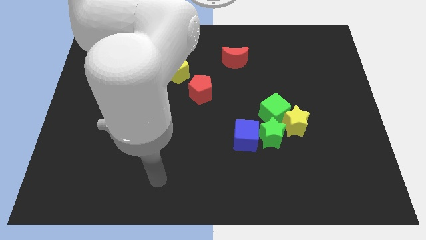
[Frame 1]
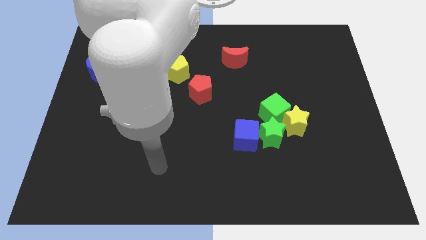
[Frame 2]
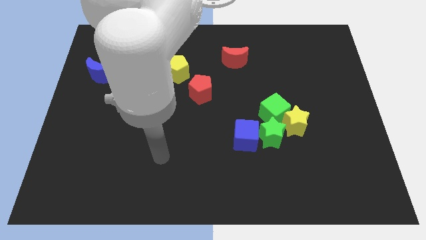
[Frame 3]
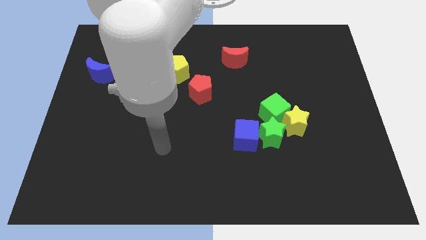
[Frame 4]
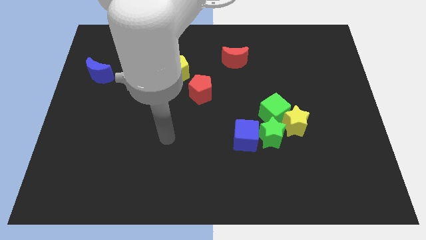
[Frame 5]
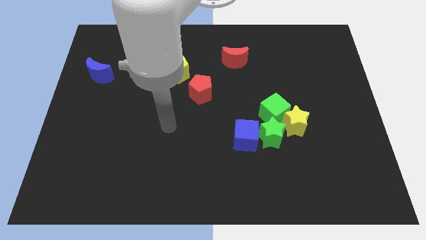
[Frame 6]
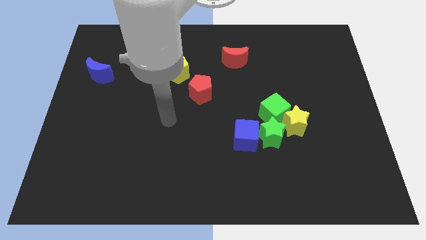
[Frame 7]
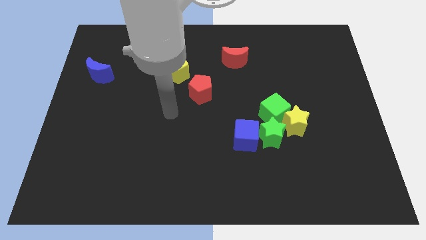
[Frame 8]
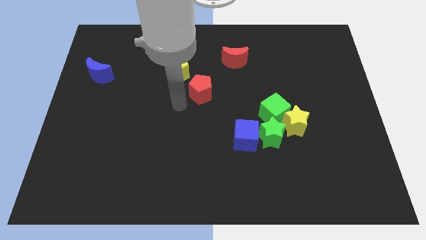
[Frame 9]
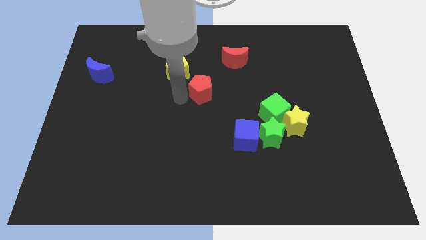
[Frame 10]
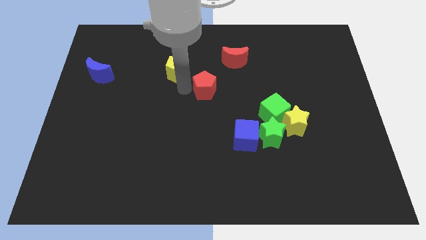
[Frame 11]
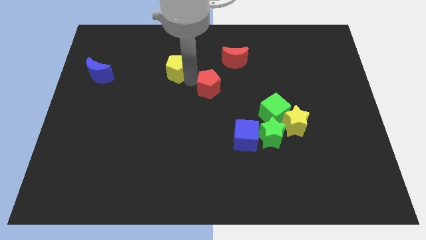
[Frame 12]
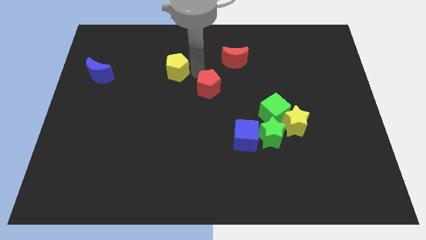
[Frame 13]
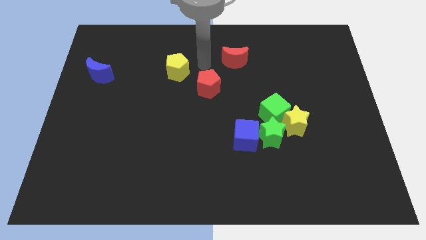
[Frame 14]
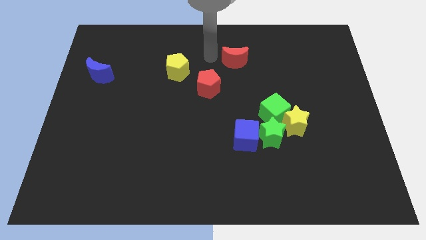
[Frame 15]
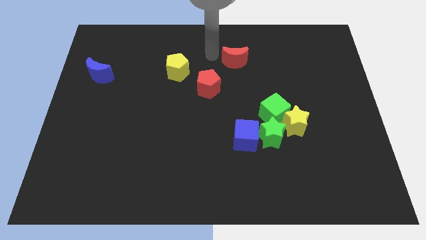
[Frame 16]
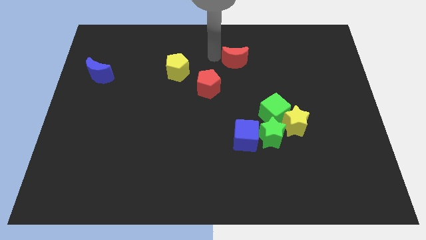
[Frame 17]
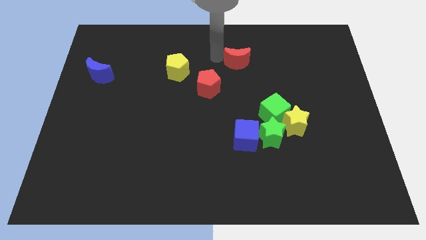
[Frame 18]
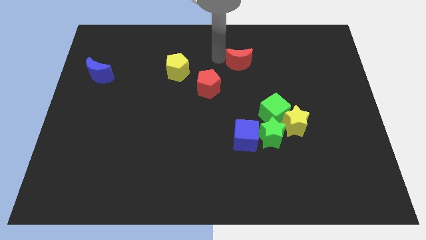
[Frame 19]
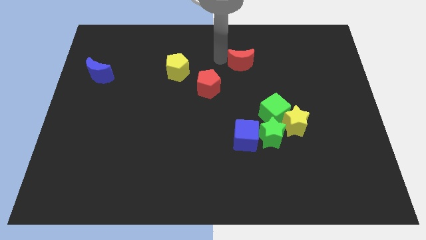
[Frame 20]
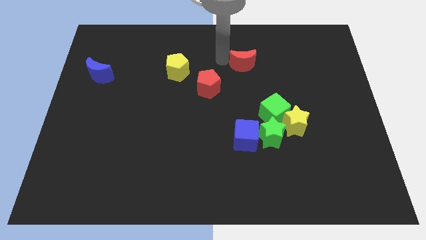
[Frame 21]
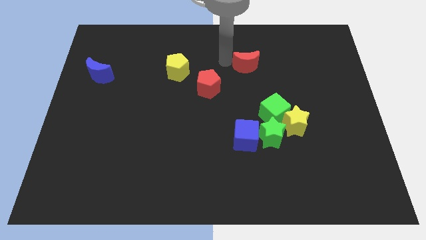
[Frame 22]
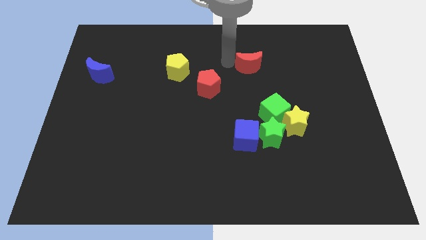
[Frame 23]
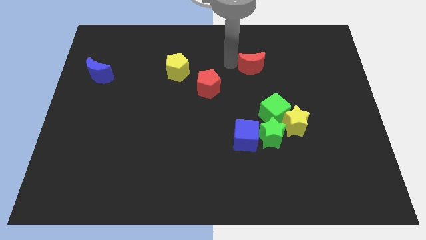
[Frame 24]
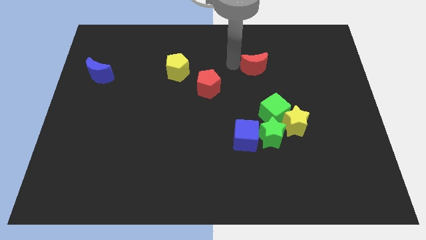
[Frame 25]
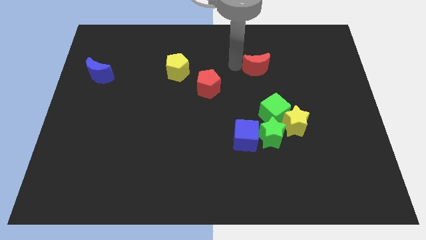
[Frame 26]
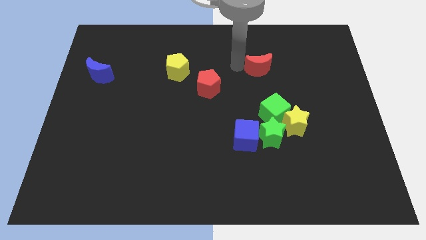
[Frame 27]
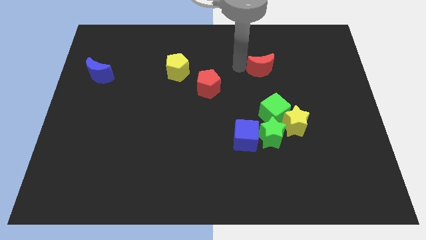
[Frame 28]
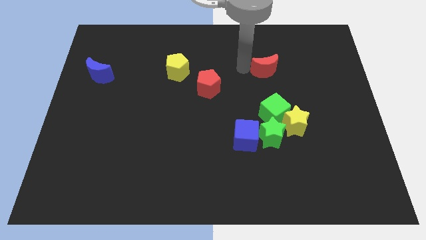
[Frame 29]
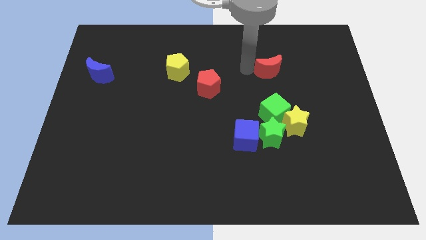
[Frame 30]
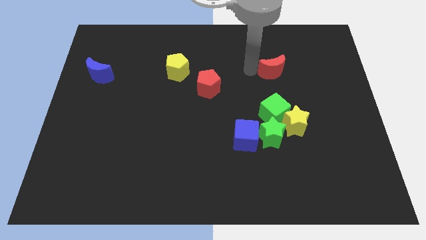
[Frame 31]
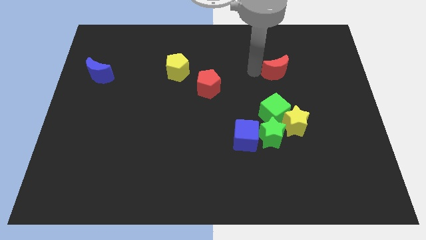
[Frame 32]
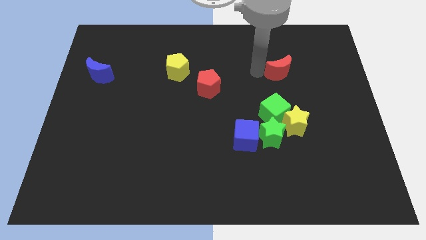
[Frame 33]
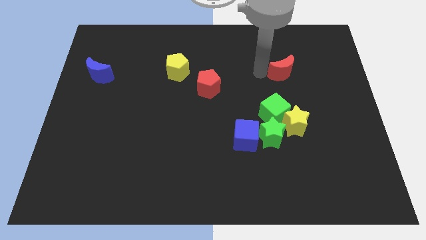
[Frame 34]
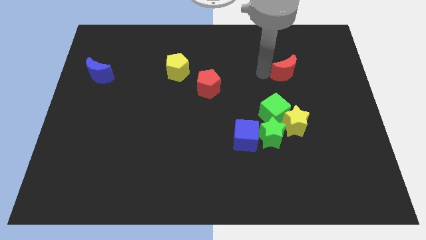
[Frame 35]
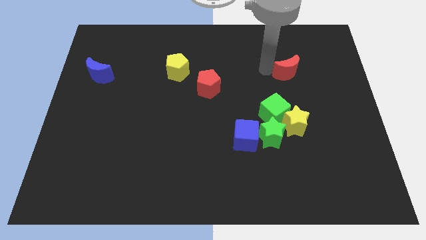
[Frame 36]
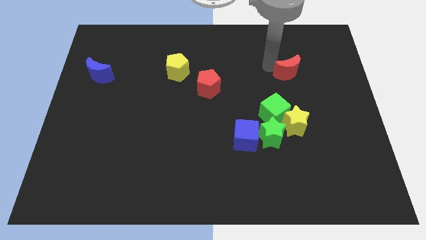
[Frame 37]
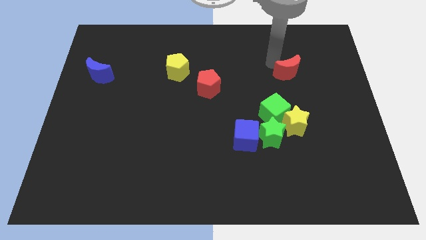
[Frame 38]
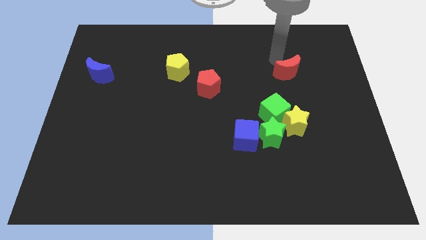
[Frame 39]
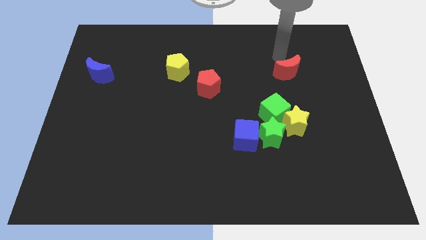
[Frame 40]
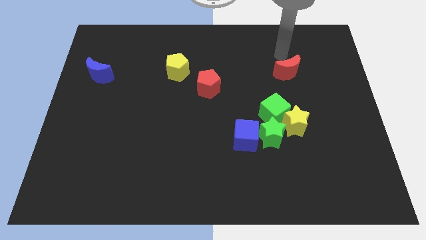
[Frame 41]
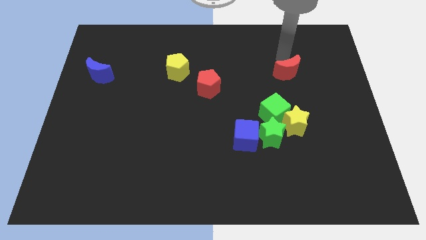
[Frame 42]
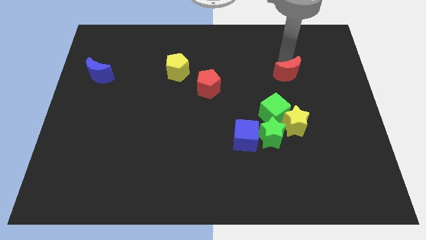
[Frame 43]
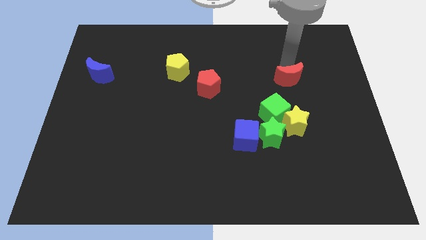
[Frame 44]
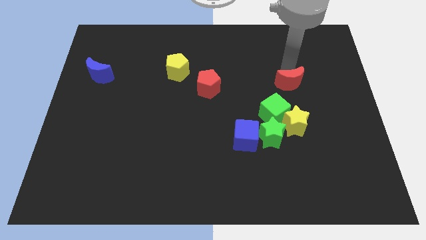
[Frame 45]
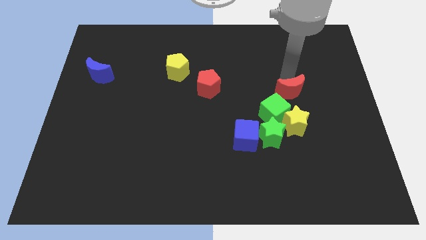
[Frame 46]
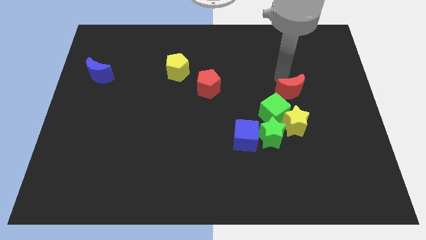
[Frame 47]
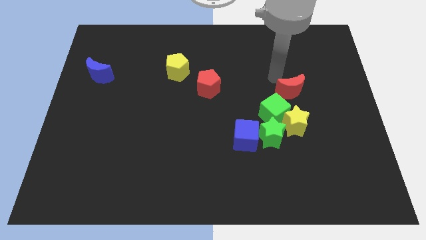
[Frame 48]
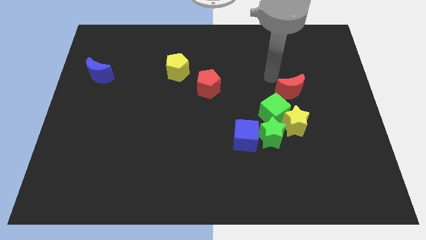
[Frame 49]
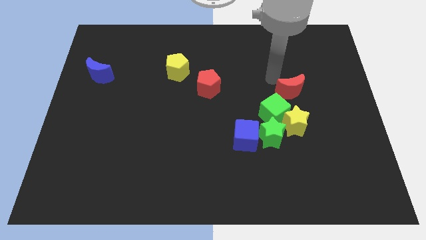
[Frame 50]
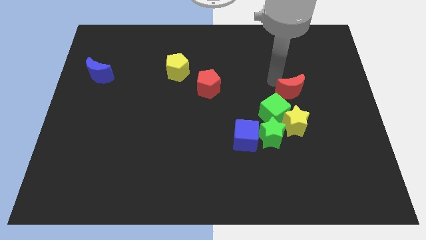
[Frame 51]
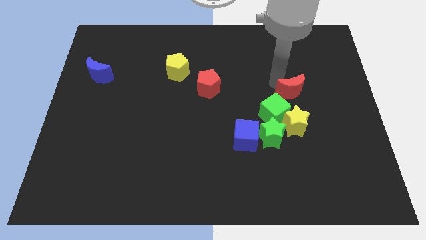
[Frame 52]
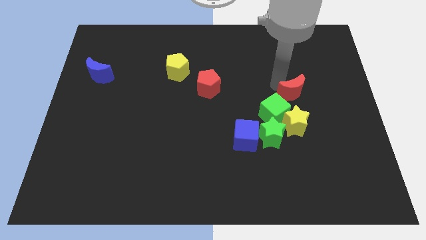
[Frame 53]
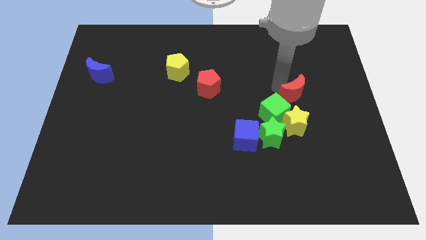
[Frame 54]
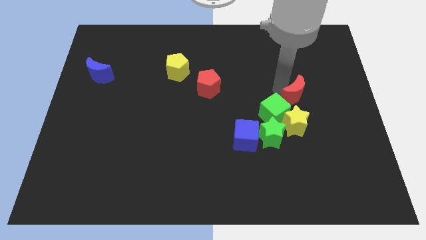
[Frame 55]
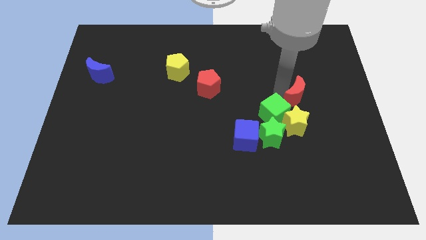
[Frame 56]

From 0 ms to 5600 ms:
move the red moon diagonally up and to the right of the yellow star

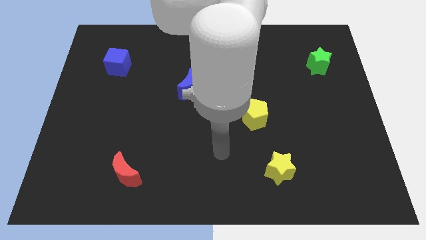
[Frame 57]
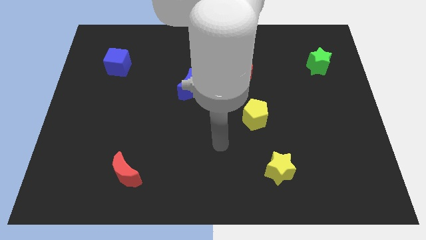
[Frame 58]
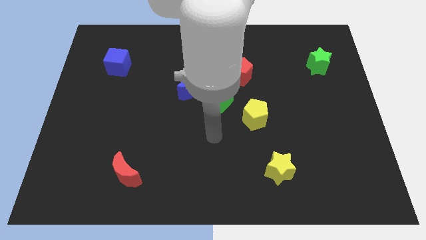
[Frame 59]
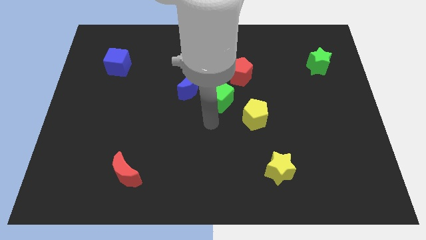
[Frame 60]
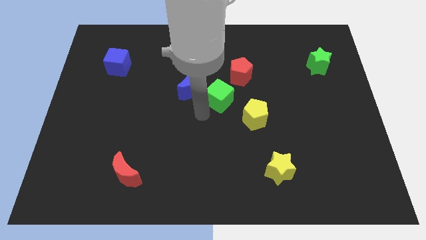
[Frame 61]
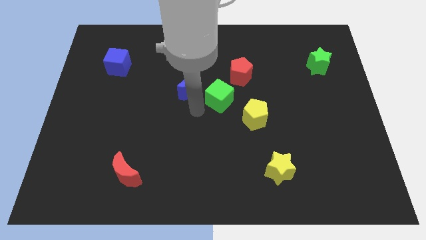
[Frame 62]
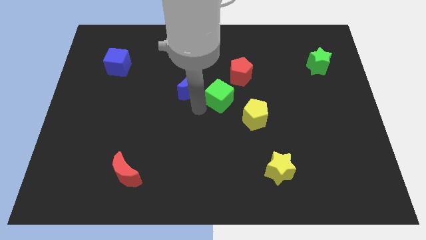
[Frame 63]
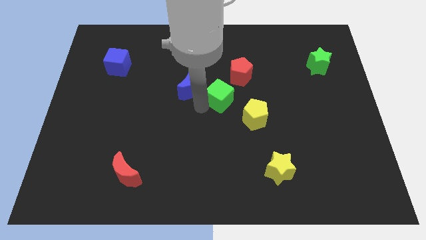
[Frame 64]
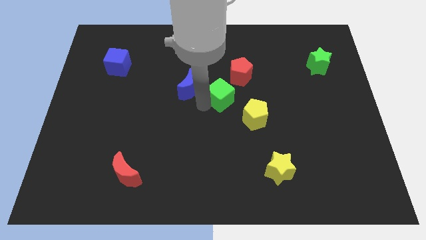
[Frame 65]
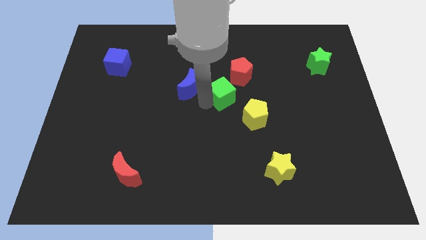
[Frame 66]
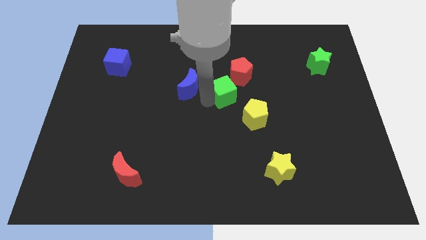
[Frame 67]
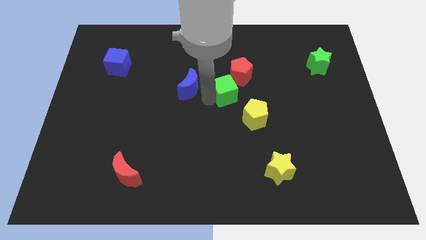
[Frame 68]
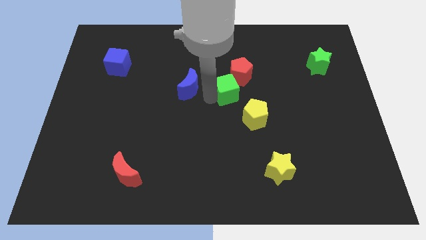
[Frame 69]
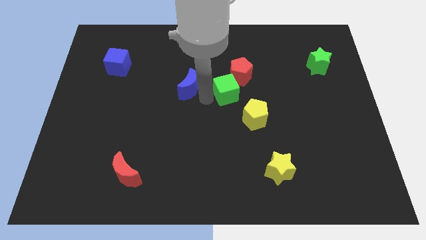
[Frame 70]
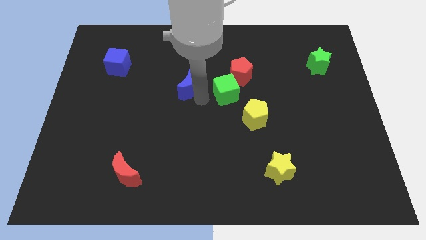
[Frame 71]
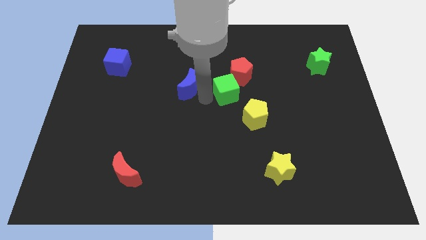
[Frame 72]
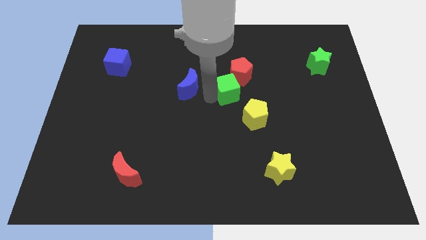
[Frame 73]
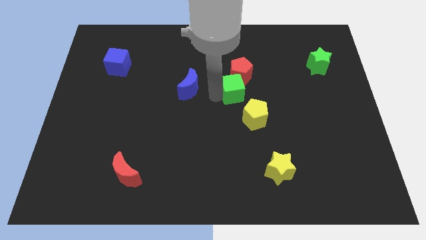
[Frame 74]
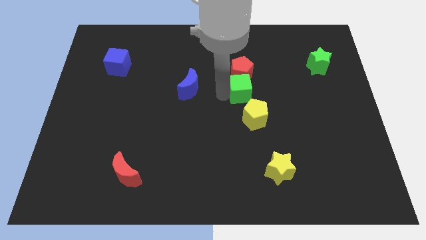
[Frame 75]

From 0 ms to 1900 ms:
slide the green cube above the yellow pentagon
